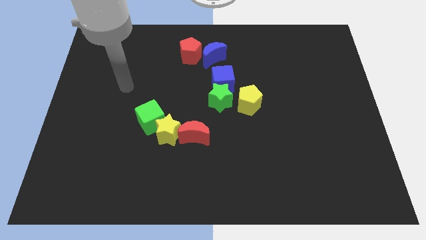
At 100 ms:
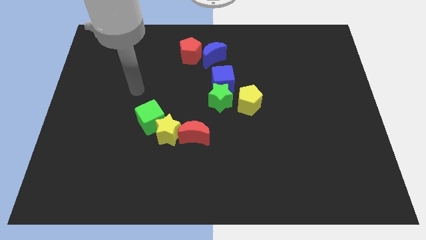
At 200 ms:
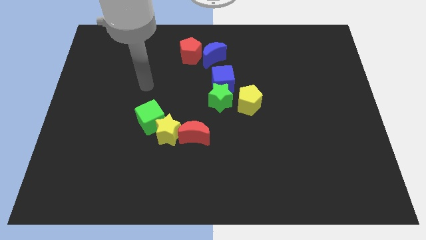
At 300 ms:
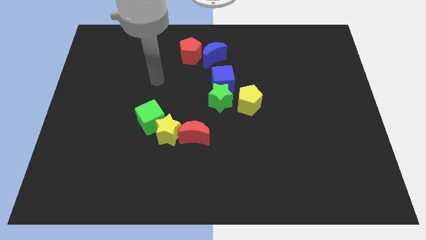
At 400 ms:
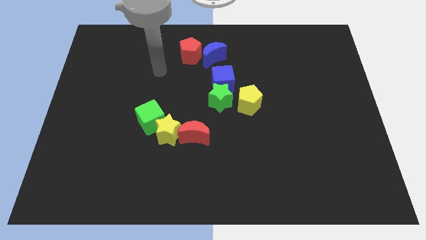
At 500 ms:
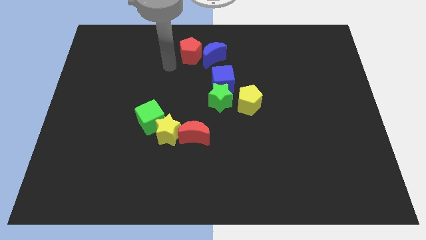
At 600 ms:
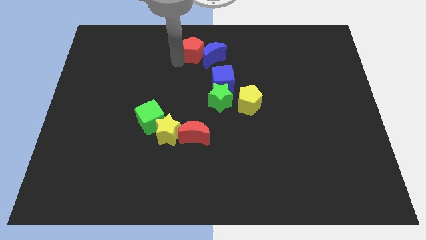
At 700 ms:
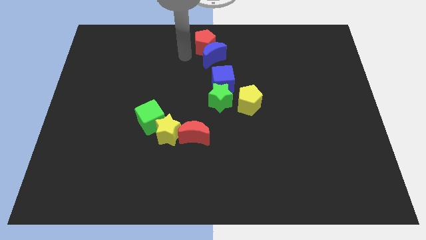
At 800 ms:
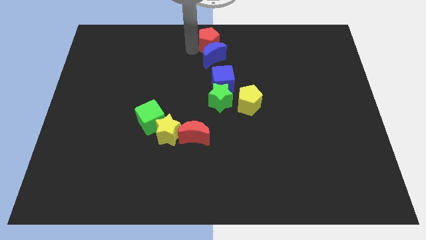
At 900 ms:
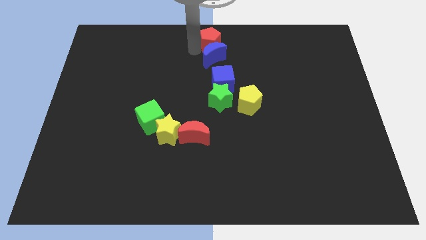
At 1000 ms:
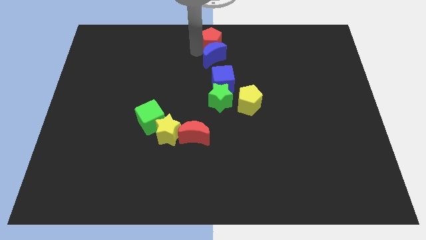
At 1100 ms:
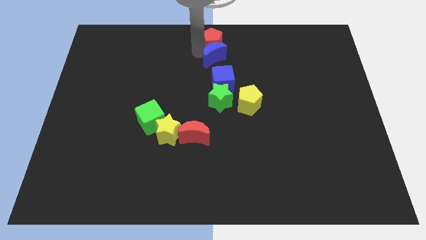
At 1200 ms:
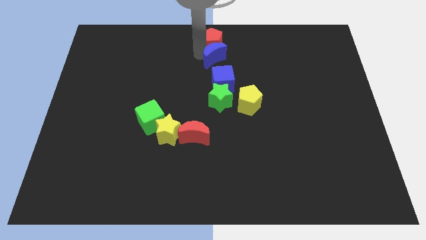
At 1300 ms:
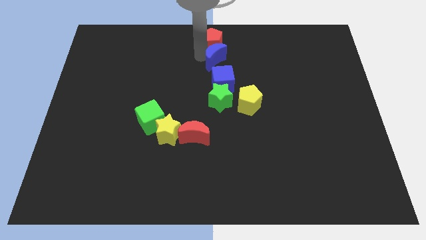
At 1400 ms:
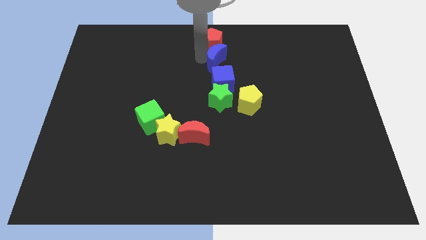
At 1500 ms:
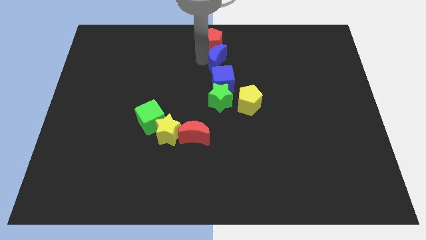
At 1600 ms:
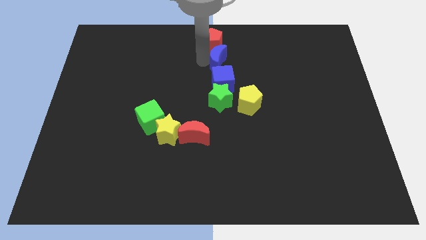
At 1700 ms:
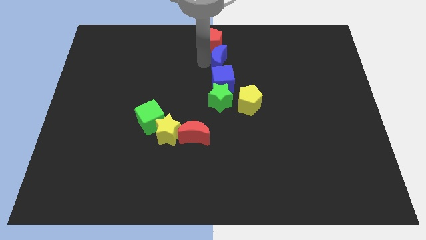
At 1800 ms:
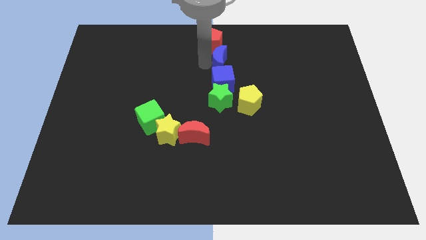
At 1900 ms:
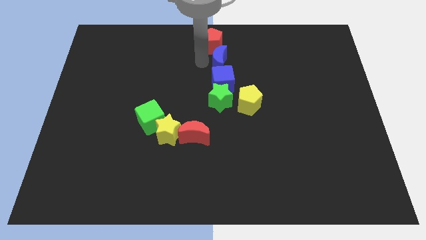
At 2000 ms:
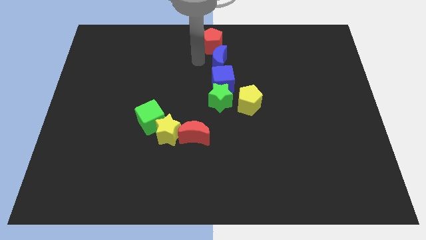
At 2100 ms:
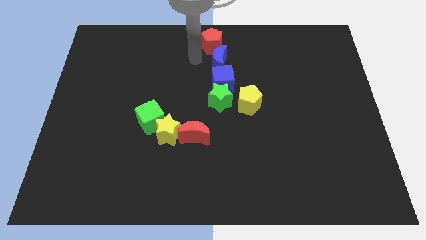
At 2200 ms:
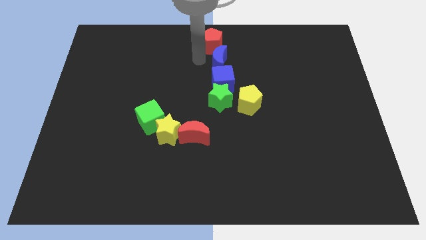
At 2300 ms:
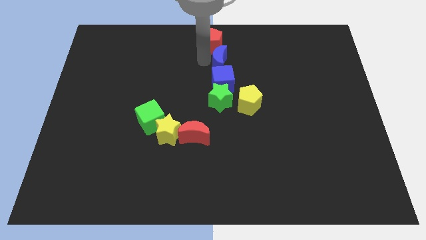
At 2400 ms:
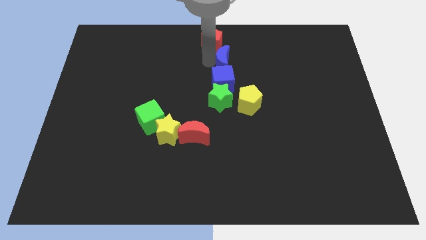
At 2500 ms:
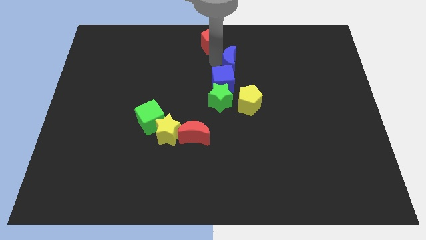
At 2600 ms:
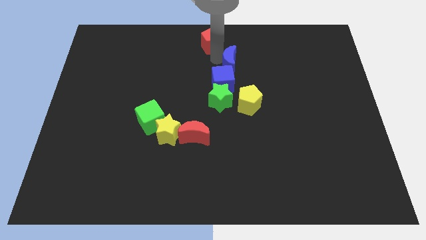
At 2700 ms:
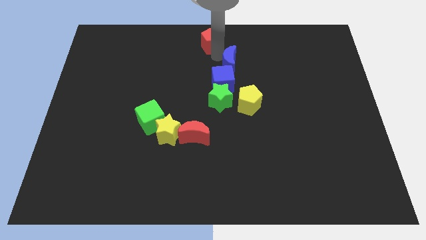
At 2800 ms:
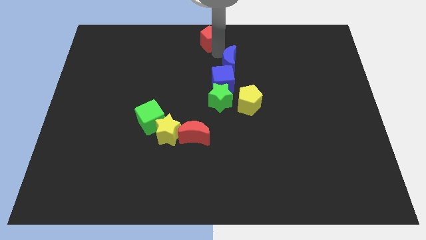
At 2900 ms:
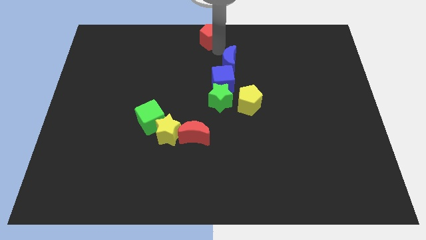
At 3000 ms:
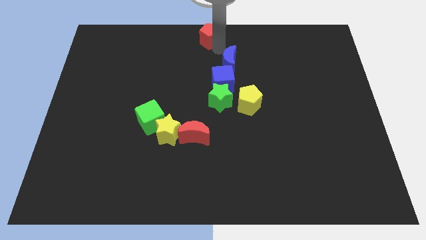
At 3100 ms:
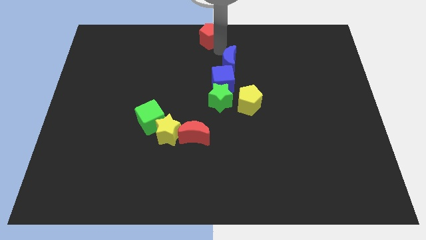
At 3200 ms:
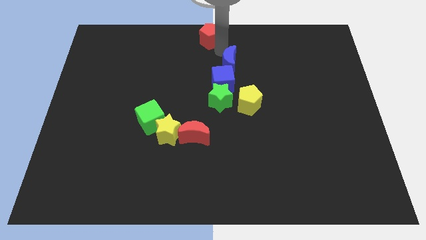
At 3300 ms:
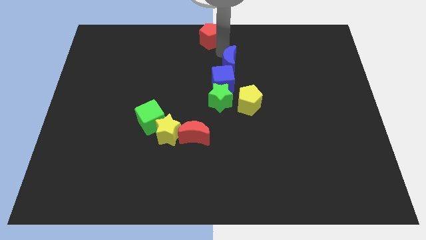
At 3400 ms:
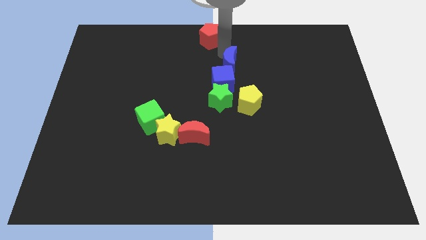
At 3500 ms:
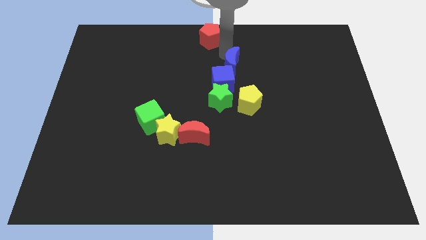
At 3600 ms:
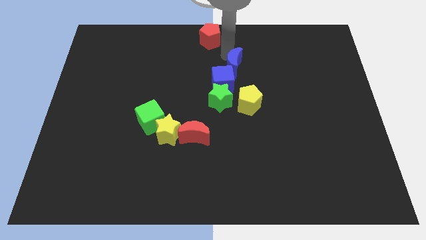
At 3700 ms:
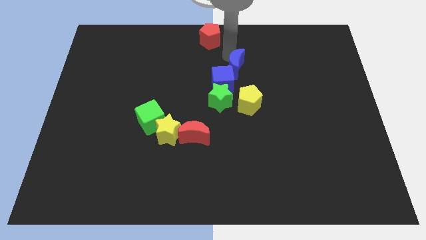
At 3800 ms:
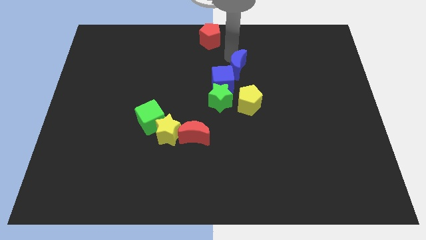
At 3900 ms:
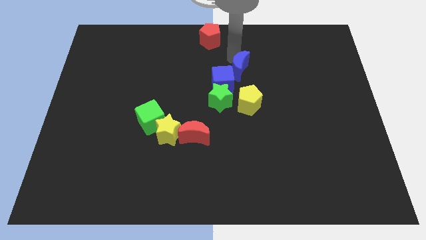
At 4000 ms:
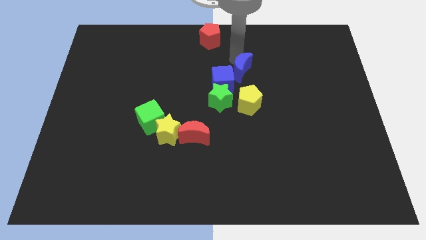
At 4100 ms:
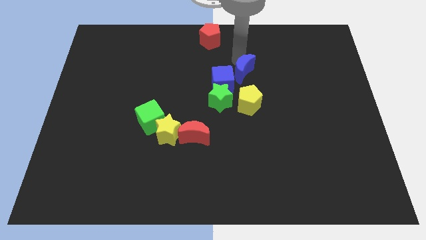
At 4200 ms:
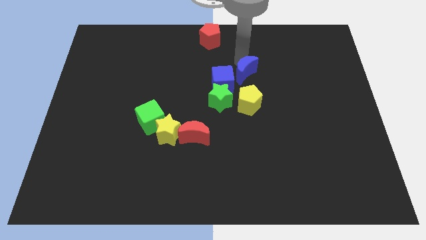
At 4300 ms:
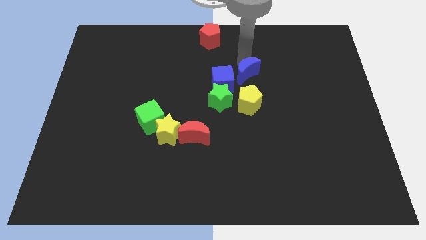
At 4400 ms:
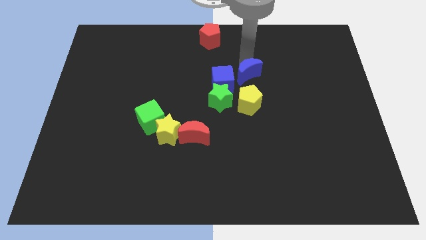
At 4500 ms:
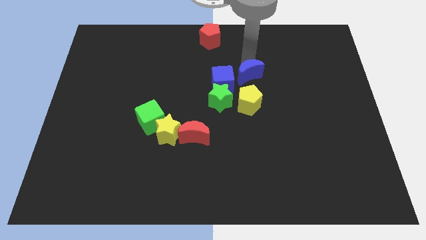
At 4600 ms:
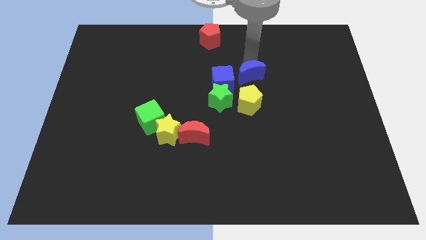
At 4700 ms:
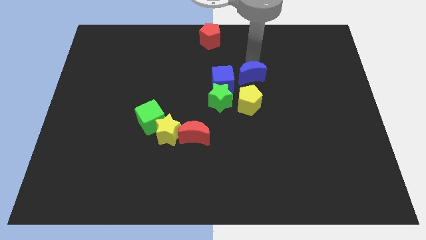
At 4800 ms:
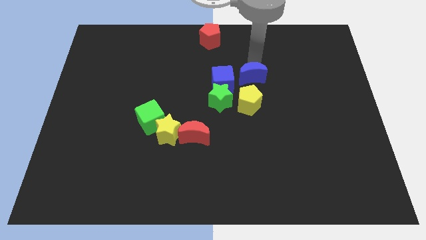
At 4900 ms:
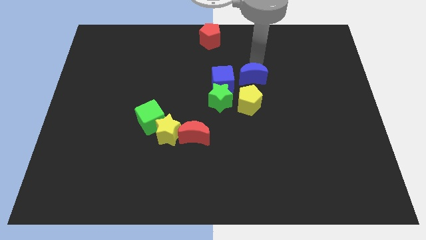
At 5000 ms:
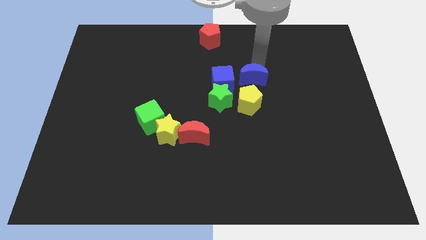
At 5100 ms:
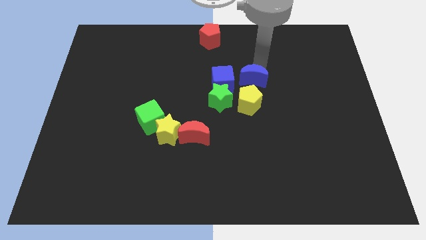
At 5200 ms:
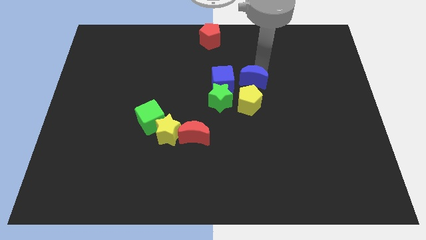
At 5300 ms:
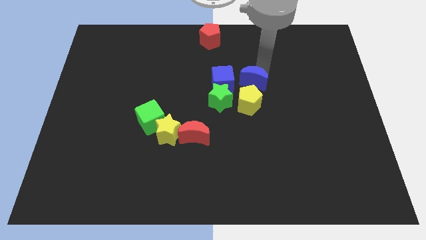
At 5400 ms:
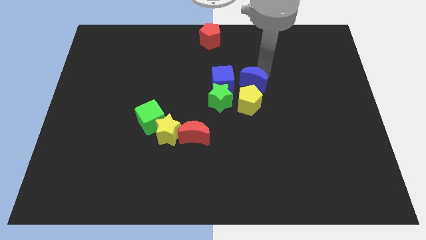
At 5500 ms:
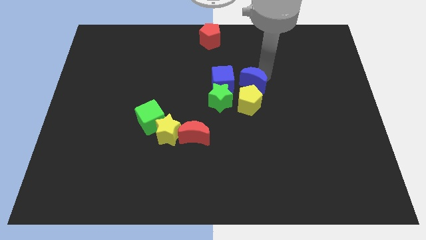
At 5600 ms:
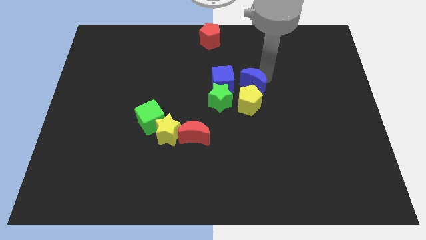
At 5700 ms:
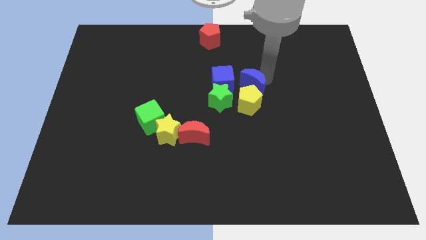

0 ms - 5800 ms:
push the blue moon next to the yellow pentagon

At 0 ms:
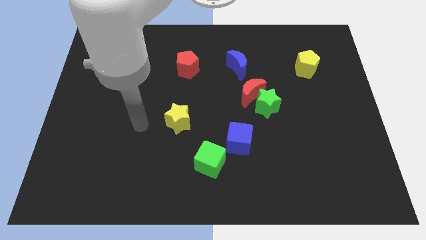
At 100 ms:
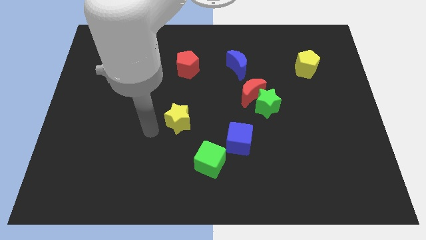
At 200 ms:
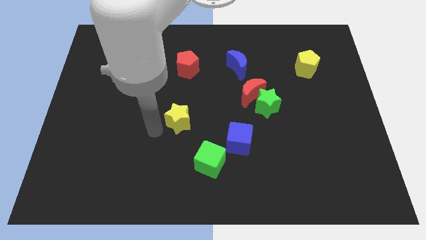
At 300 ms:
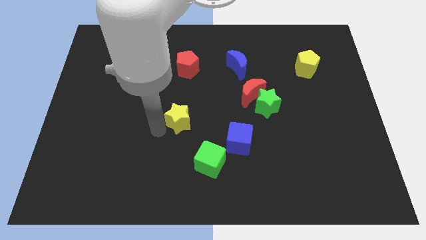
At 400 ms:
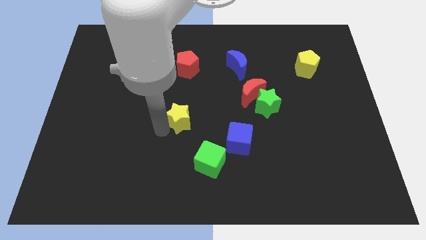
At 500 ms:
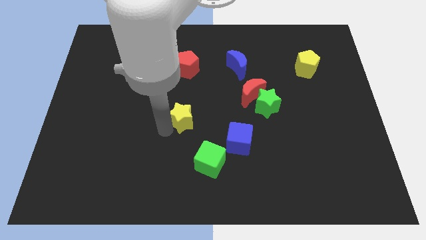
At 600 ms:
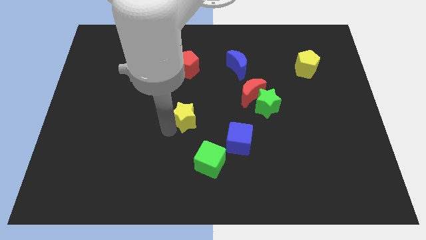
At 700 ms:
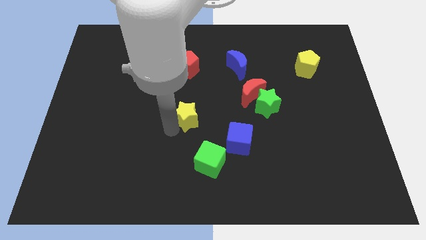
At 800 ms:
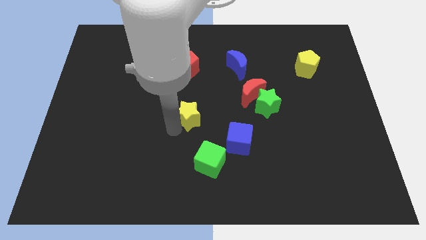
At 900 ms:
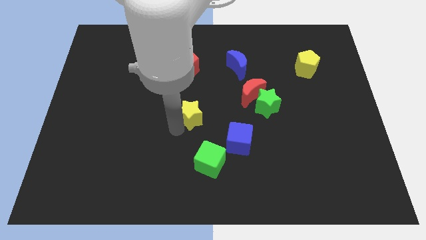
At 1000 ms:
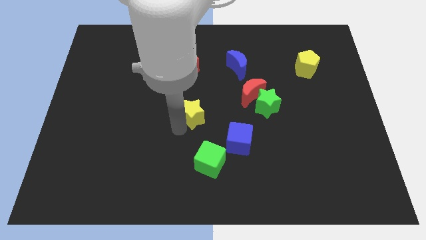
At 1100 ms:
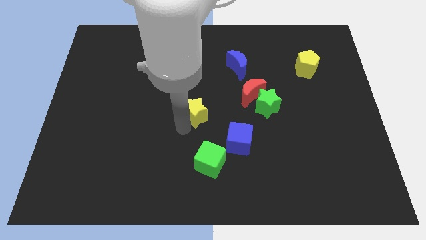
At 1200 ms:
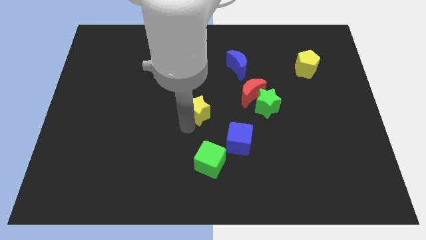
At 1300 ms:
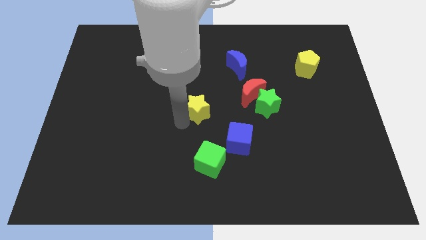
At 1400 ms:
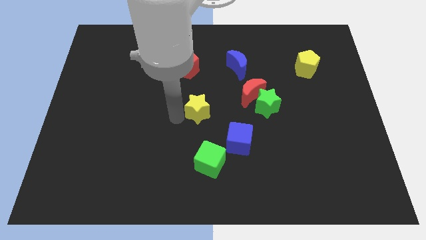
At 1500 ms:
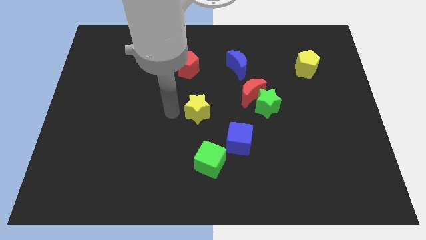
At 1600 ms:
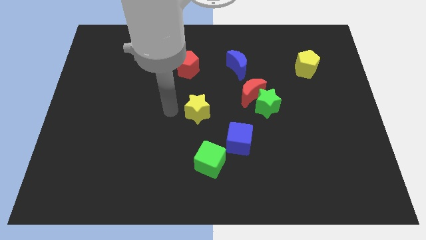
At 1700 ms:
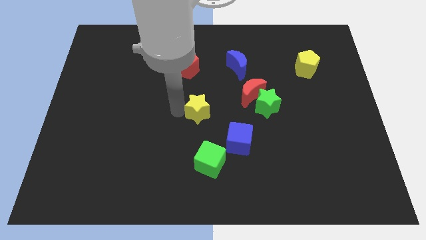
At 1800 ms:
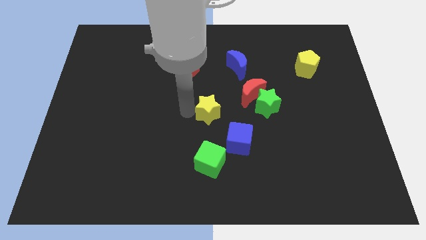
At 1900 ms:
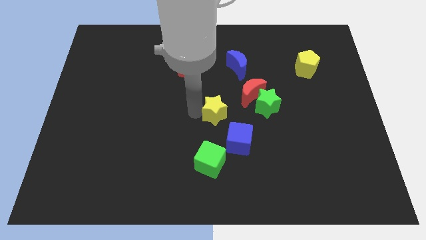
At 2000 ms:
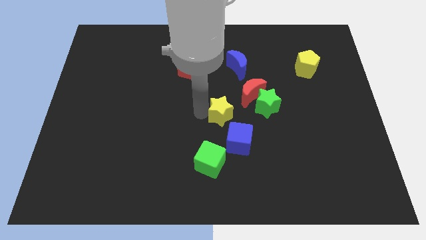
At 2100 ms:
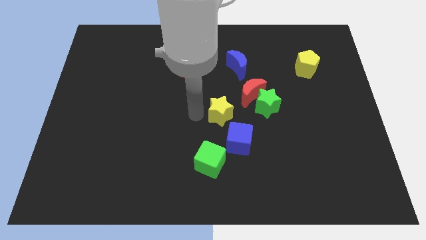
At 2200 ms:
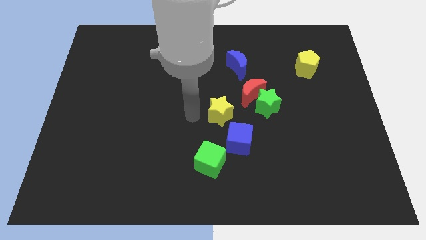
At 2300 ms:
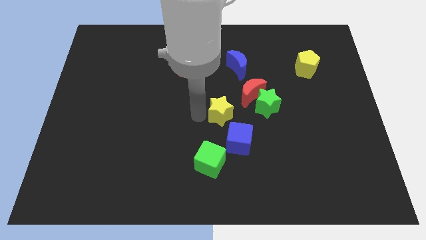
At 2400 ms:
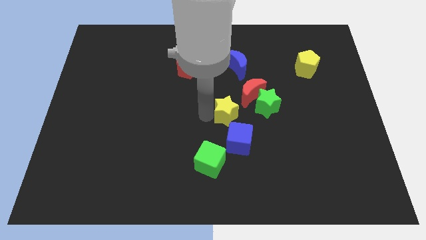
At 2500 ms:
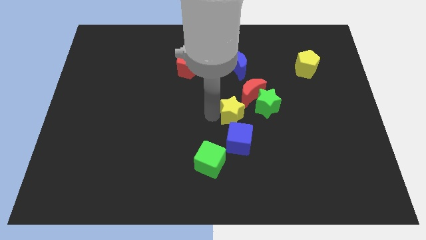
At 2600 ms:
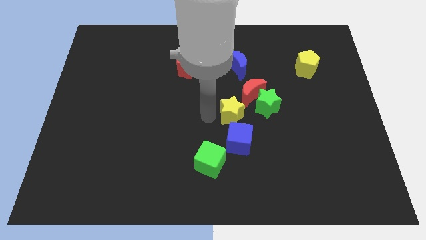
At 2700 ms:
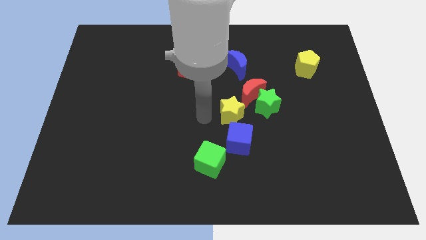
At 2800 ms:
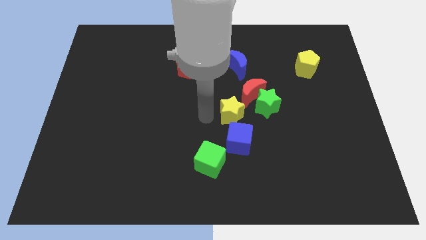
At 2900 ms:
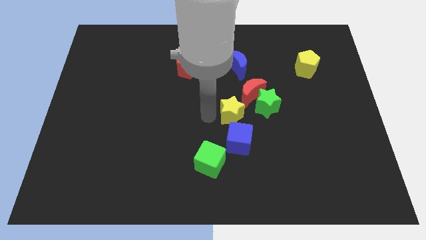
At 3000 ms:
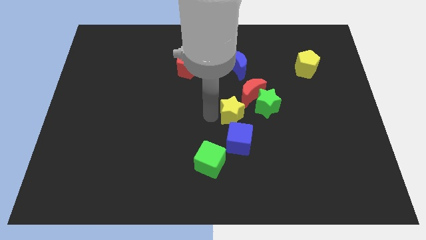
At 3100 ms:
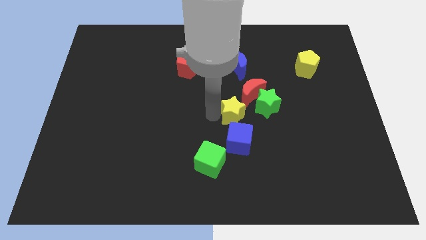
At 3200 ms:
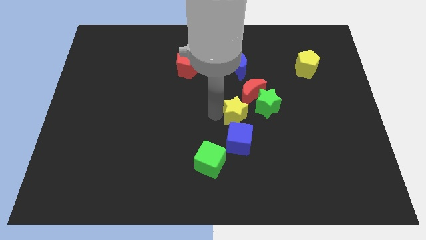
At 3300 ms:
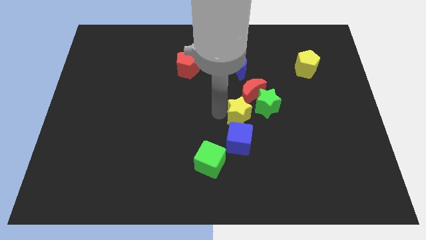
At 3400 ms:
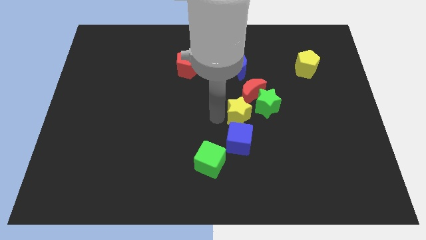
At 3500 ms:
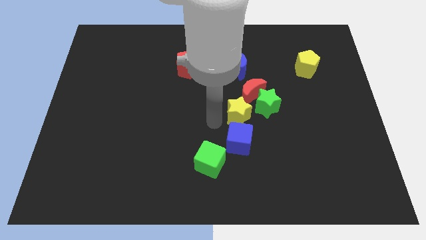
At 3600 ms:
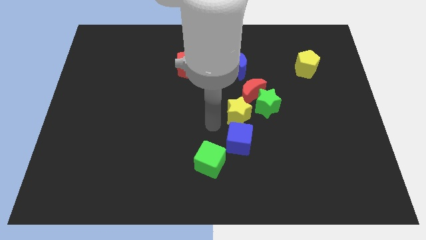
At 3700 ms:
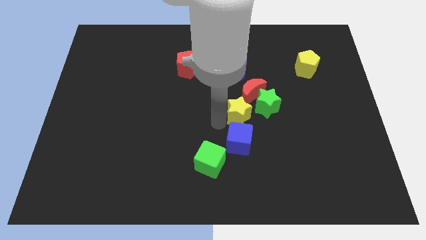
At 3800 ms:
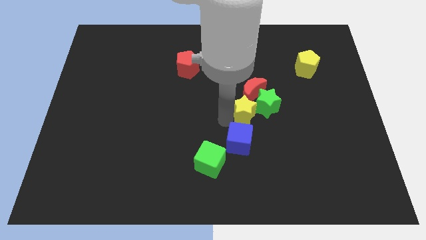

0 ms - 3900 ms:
slide the yellow star to the green star
